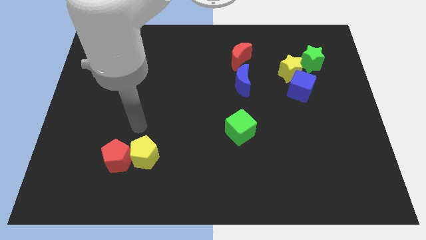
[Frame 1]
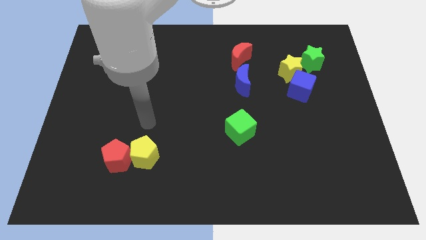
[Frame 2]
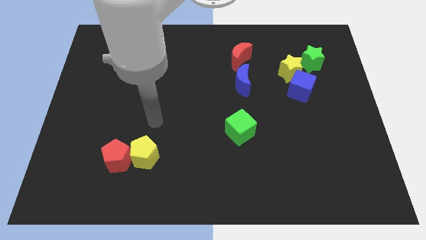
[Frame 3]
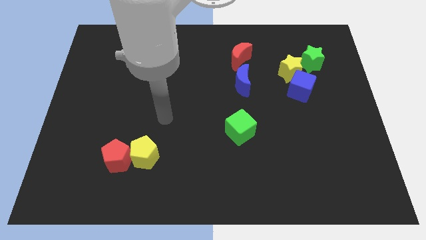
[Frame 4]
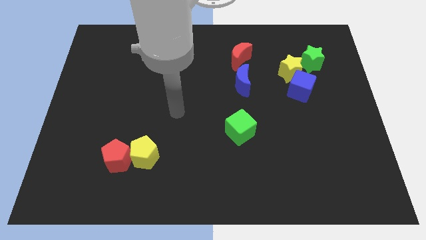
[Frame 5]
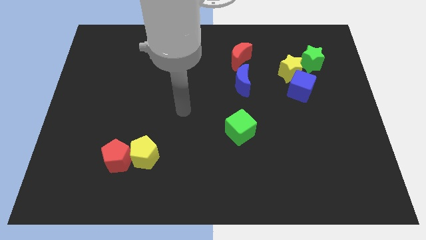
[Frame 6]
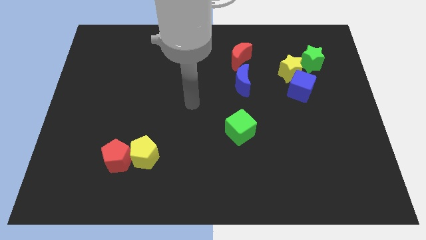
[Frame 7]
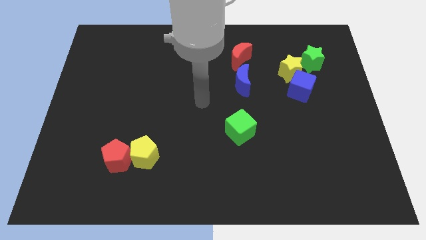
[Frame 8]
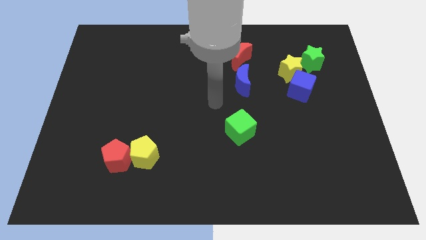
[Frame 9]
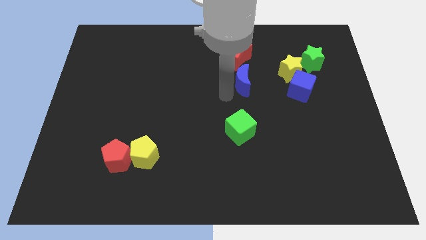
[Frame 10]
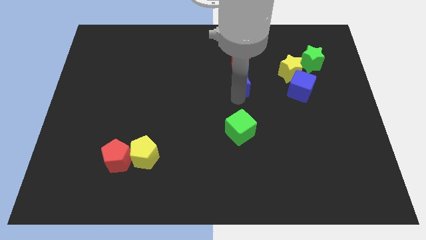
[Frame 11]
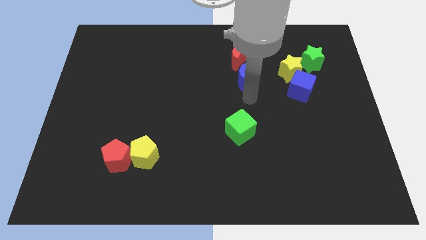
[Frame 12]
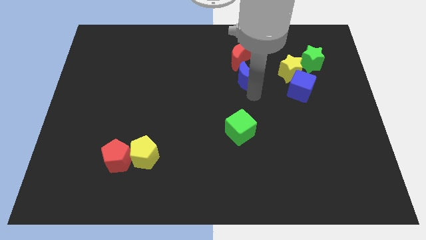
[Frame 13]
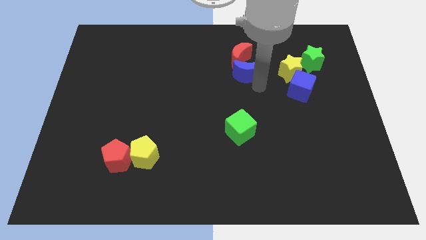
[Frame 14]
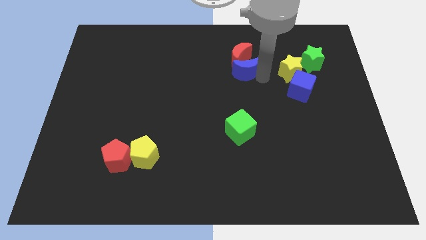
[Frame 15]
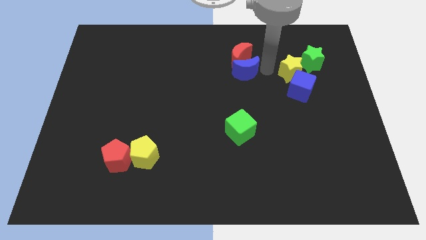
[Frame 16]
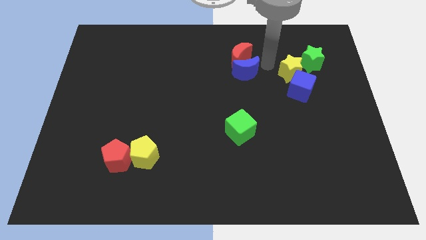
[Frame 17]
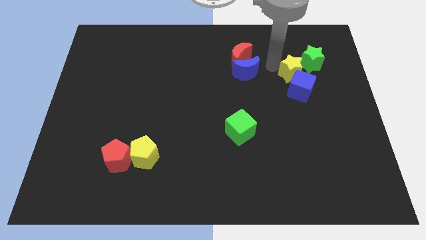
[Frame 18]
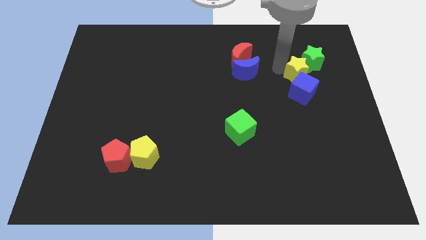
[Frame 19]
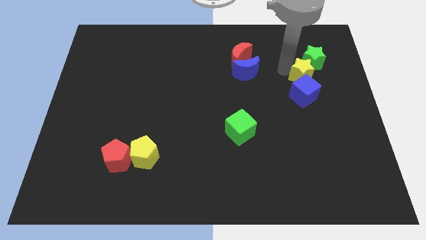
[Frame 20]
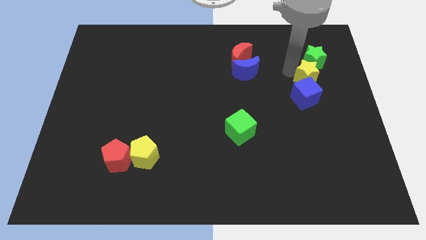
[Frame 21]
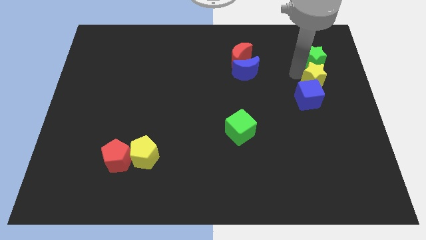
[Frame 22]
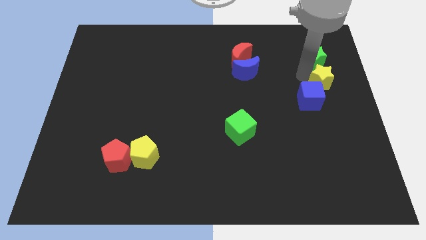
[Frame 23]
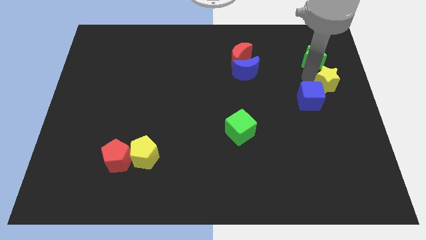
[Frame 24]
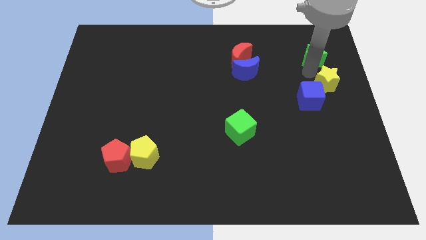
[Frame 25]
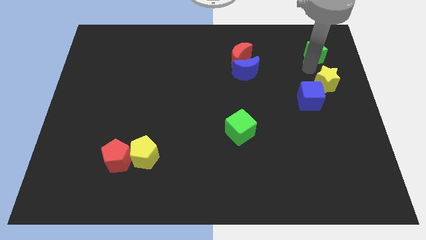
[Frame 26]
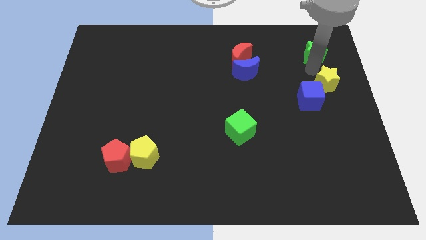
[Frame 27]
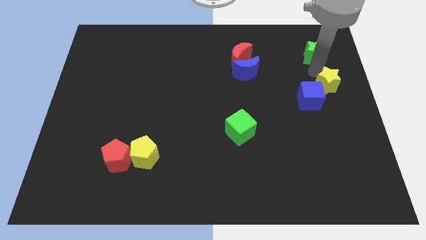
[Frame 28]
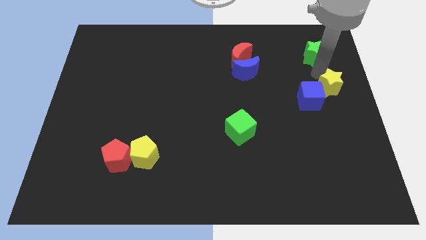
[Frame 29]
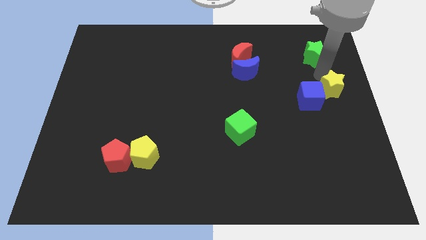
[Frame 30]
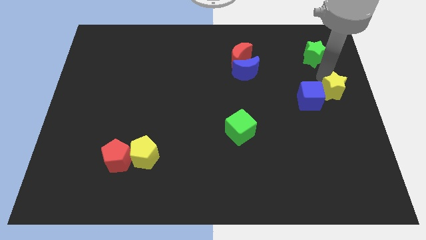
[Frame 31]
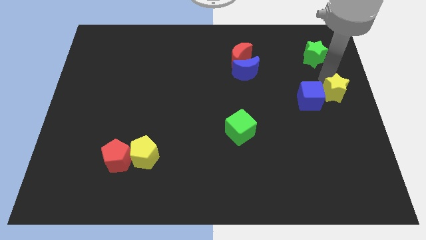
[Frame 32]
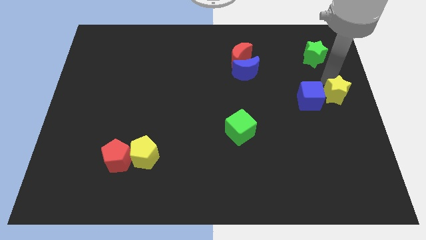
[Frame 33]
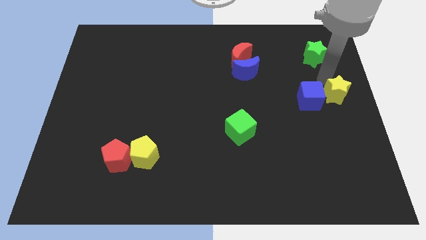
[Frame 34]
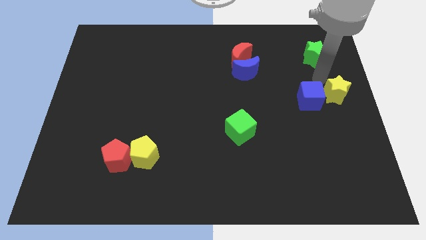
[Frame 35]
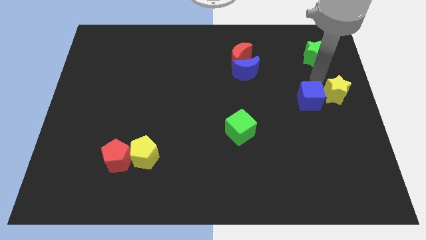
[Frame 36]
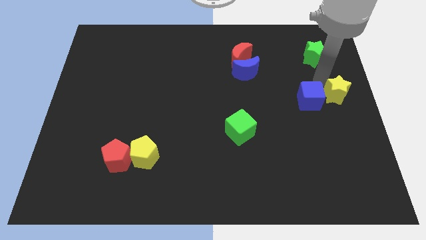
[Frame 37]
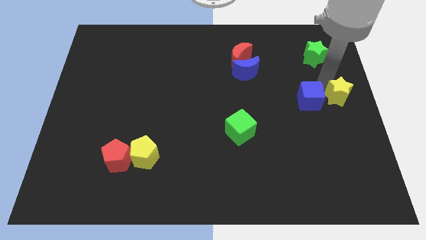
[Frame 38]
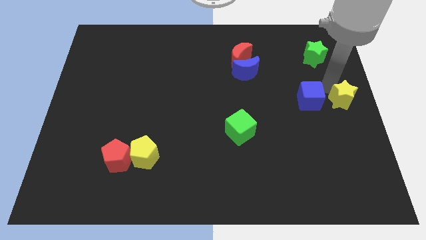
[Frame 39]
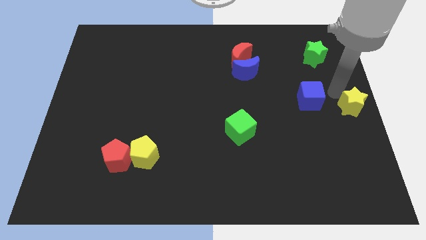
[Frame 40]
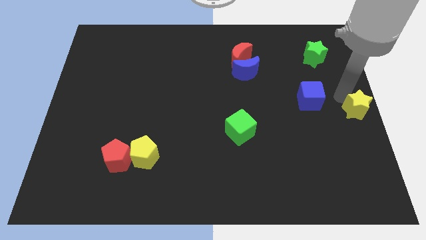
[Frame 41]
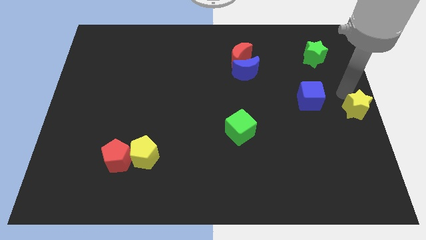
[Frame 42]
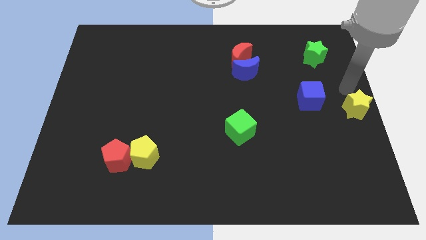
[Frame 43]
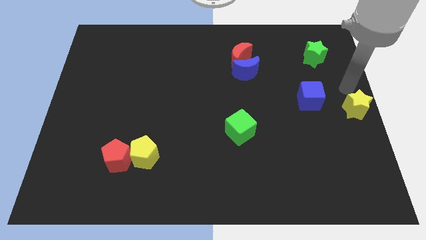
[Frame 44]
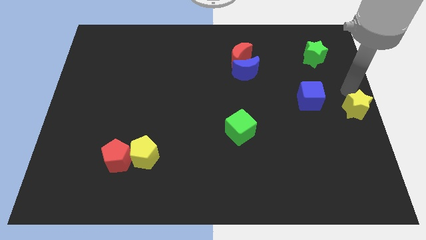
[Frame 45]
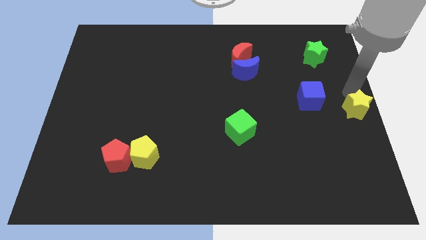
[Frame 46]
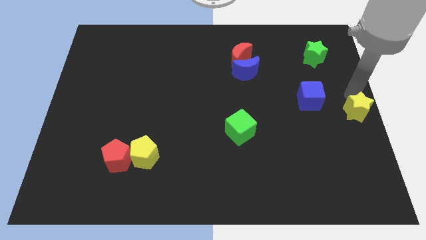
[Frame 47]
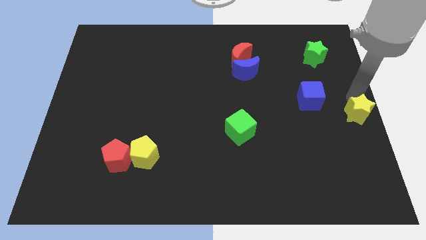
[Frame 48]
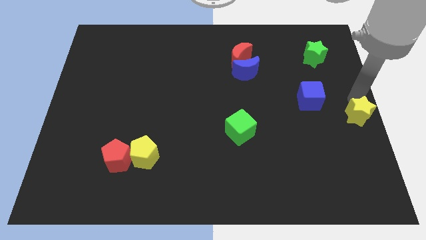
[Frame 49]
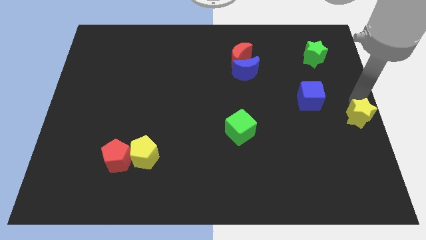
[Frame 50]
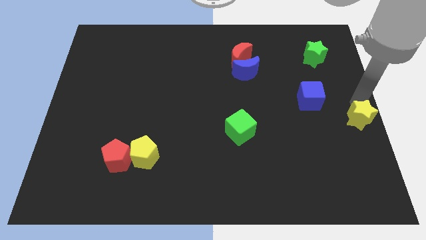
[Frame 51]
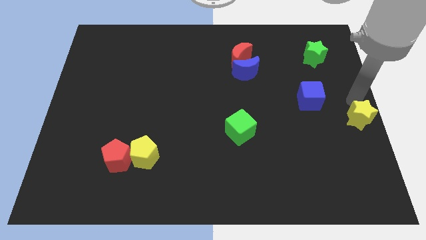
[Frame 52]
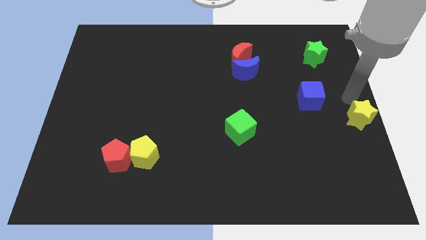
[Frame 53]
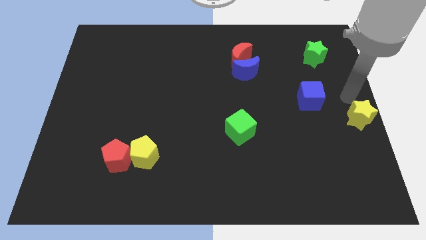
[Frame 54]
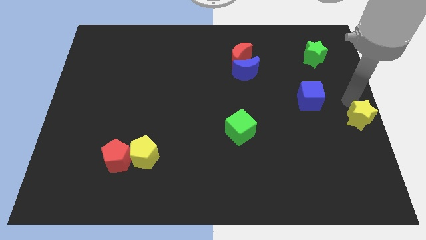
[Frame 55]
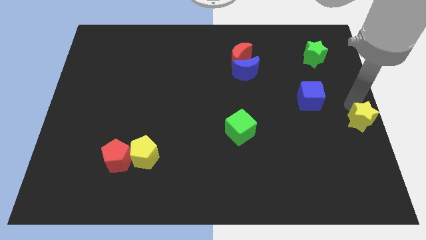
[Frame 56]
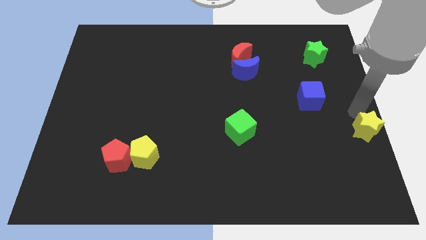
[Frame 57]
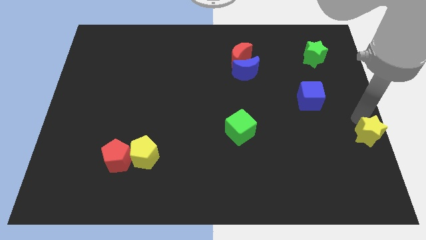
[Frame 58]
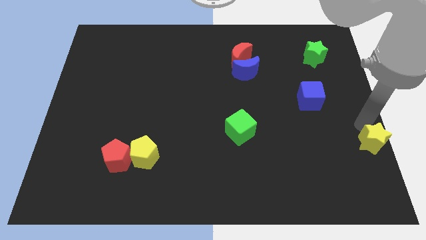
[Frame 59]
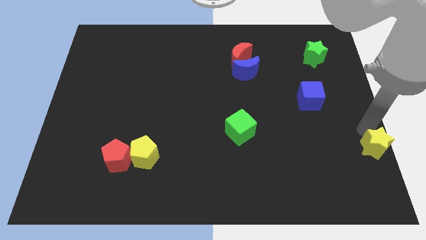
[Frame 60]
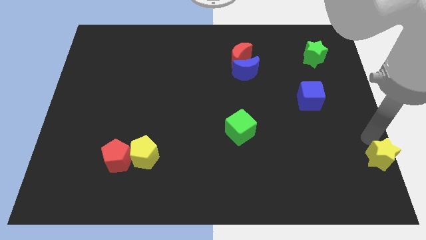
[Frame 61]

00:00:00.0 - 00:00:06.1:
slide the yellow star to the bottom right corner

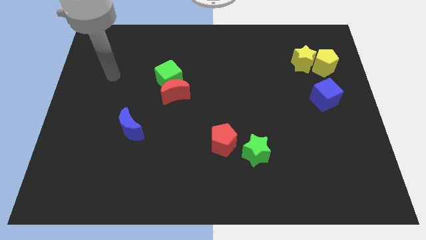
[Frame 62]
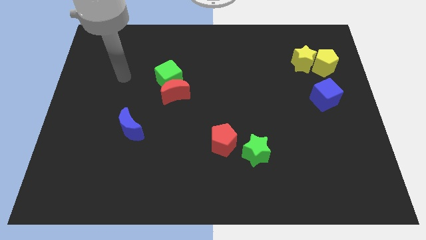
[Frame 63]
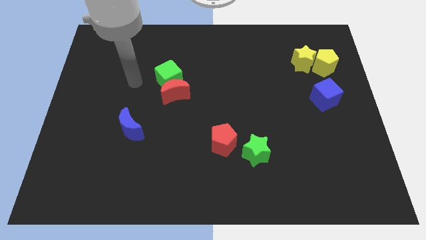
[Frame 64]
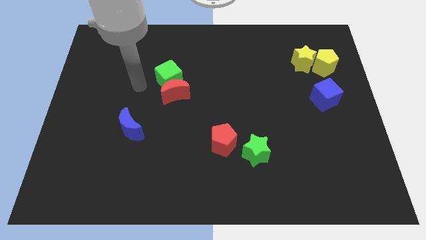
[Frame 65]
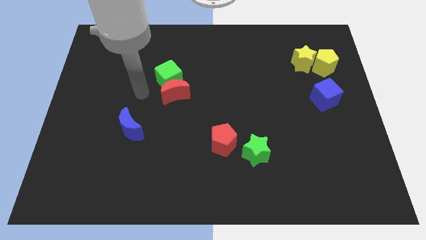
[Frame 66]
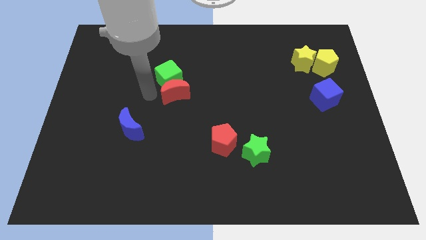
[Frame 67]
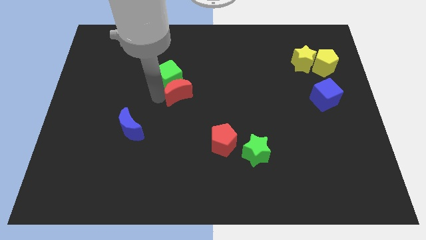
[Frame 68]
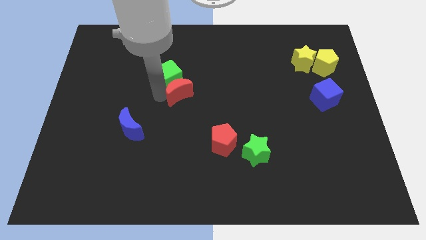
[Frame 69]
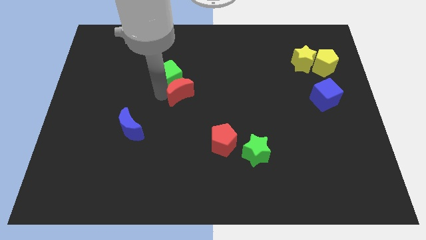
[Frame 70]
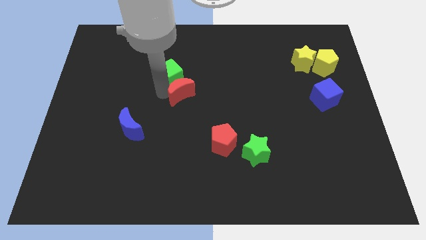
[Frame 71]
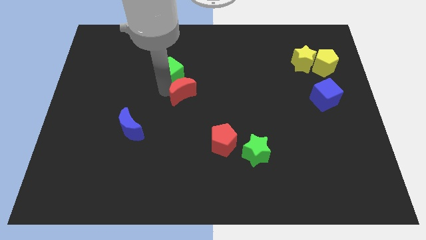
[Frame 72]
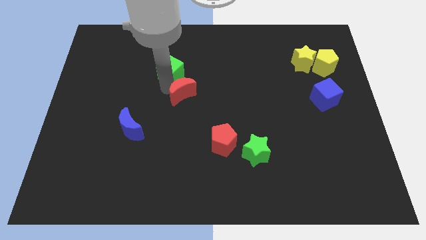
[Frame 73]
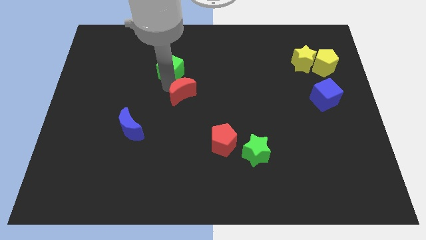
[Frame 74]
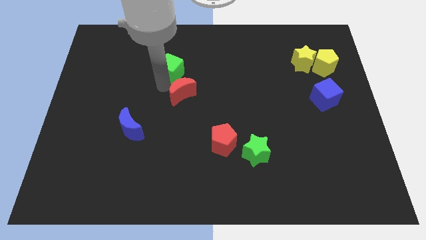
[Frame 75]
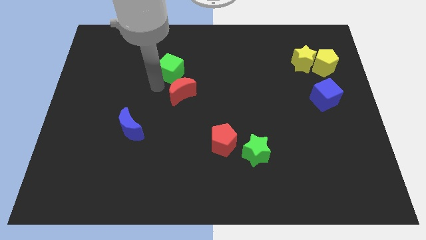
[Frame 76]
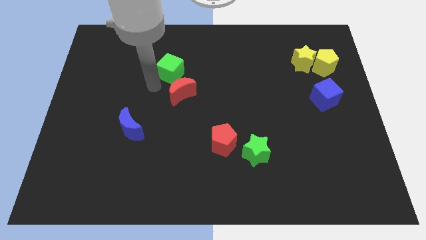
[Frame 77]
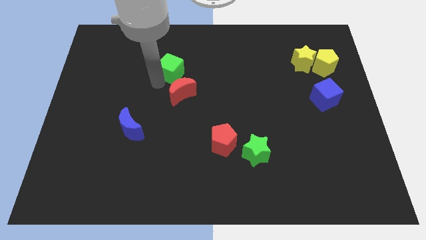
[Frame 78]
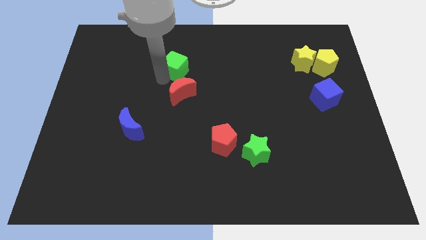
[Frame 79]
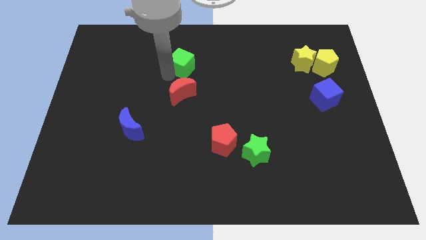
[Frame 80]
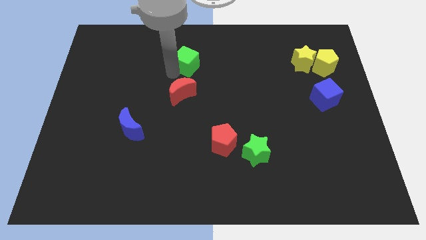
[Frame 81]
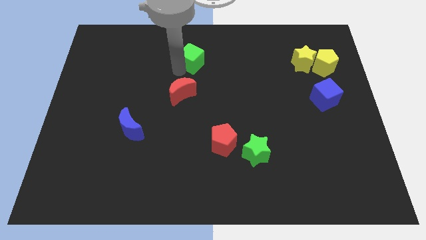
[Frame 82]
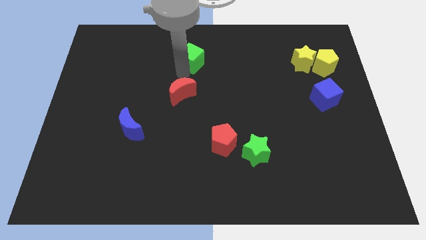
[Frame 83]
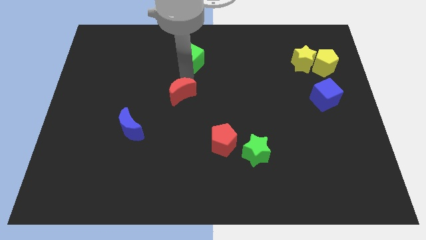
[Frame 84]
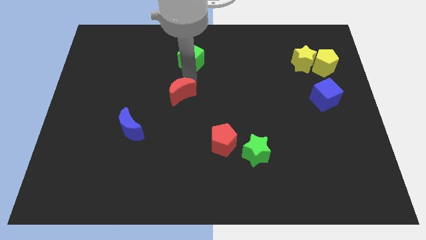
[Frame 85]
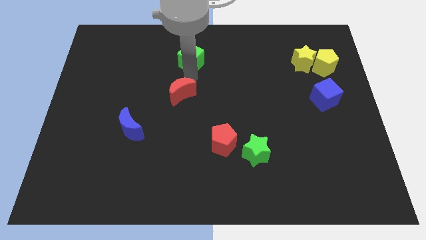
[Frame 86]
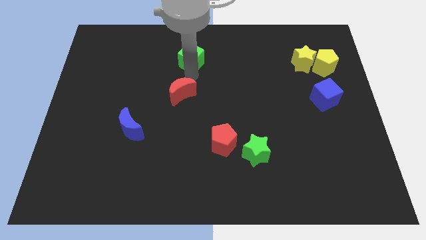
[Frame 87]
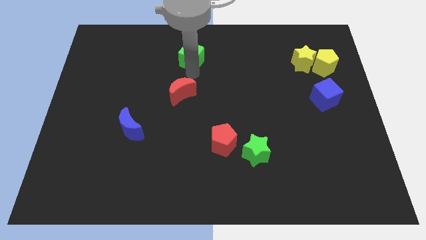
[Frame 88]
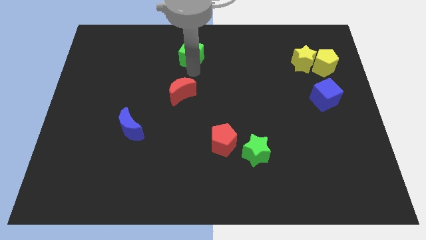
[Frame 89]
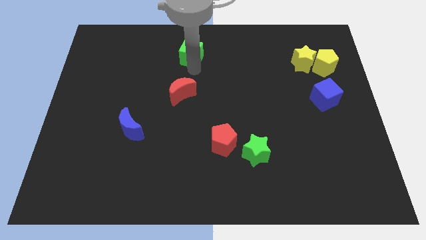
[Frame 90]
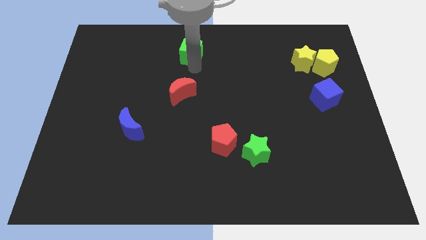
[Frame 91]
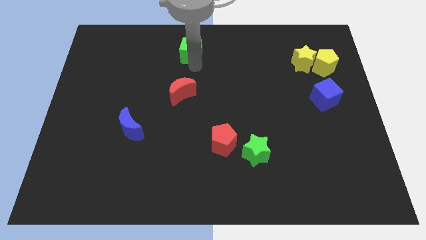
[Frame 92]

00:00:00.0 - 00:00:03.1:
put the green cube to the top side
